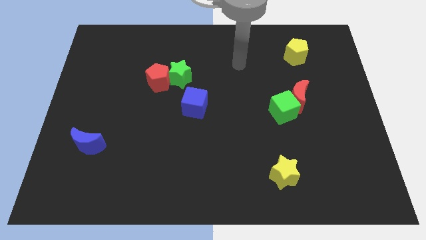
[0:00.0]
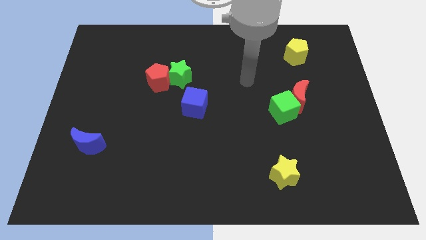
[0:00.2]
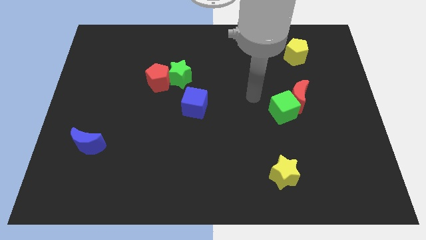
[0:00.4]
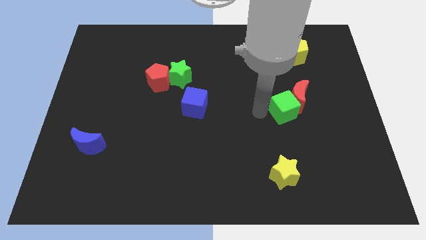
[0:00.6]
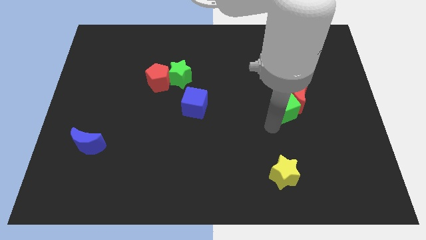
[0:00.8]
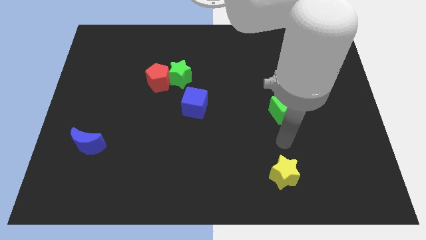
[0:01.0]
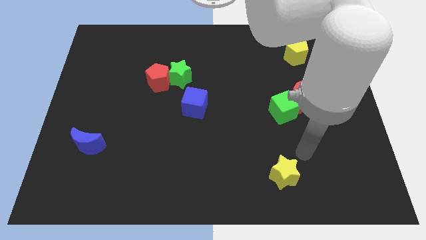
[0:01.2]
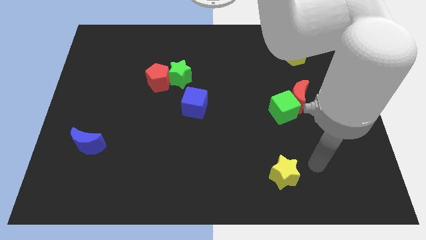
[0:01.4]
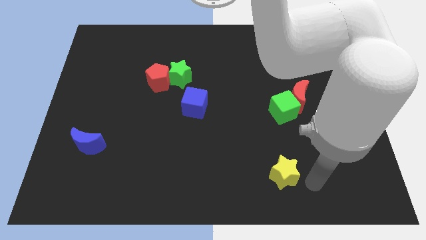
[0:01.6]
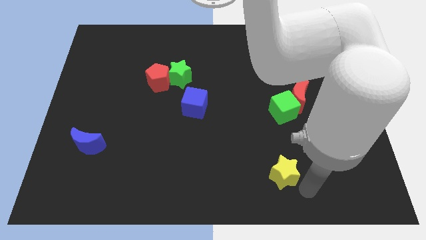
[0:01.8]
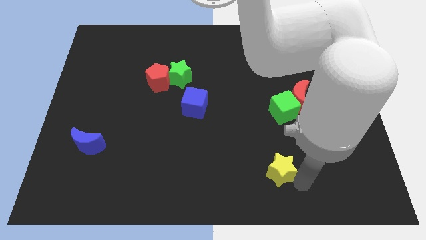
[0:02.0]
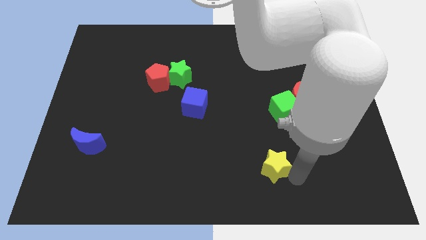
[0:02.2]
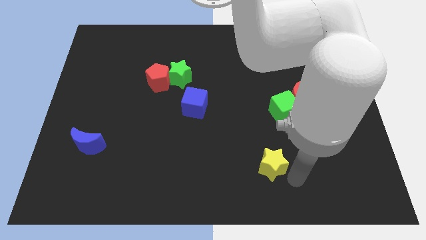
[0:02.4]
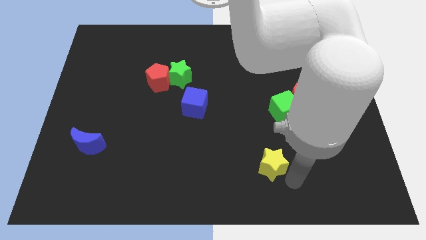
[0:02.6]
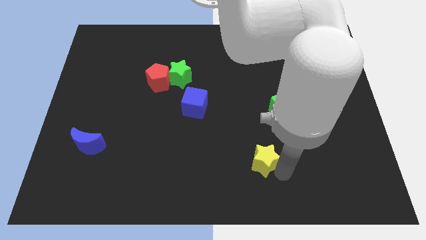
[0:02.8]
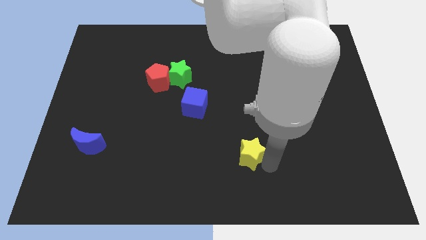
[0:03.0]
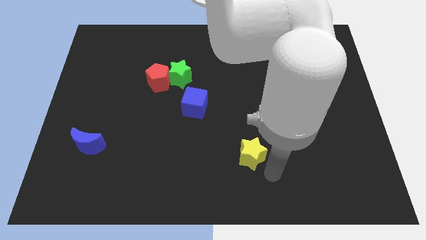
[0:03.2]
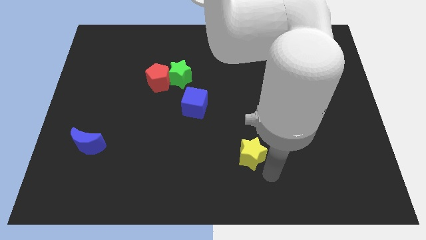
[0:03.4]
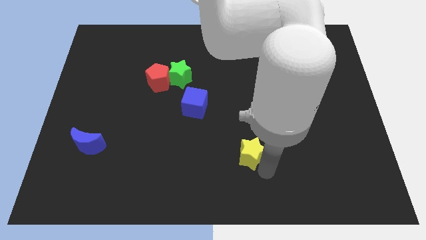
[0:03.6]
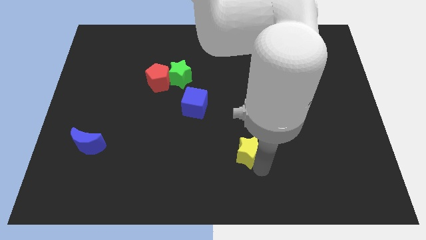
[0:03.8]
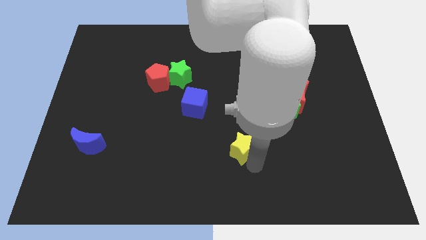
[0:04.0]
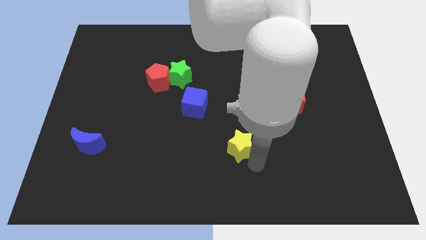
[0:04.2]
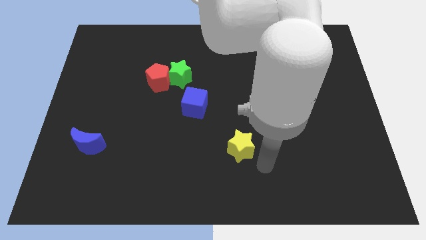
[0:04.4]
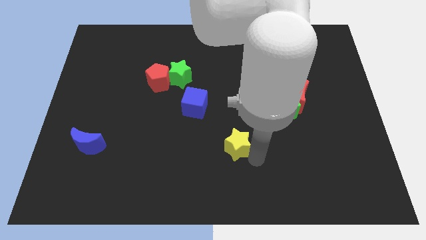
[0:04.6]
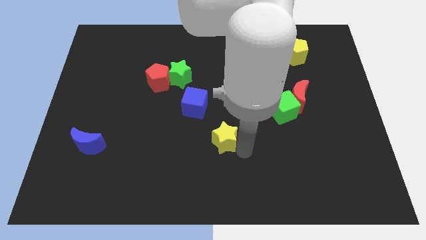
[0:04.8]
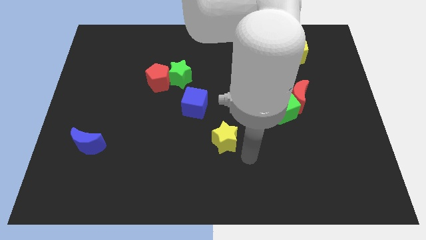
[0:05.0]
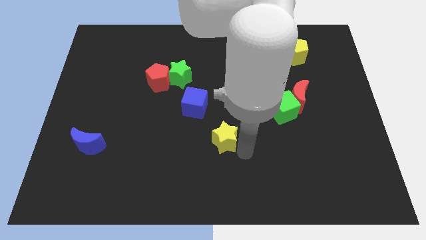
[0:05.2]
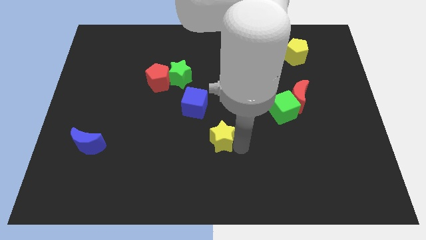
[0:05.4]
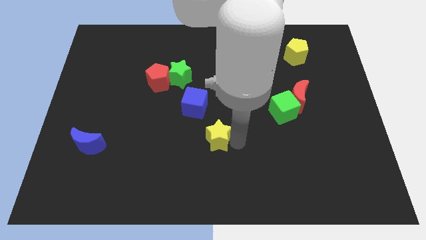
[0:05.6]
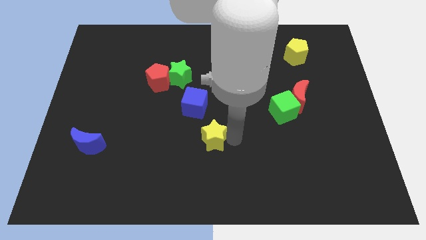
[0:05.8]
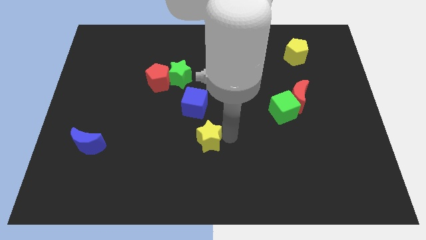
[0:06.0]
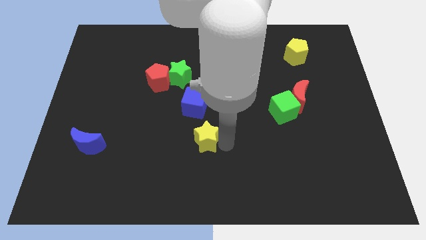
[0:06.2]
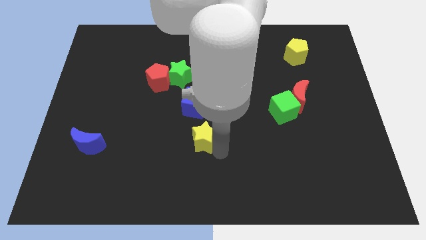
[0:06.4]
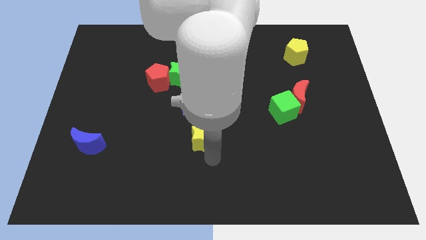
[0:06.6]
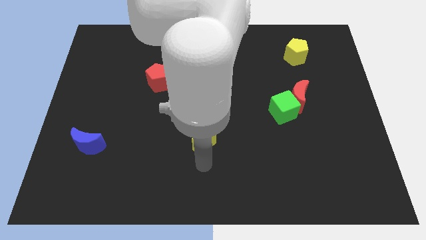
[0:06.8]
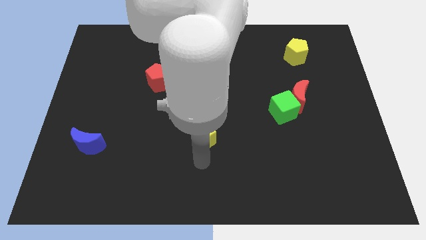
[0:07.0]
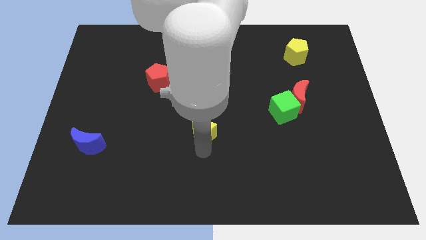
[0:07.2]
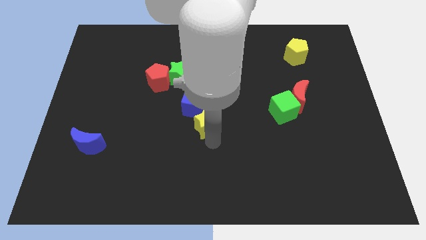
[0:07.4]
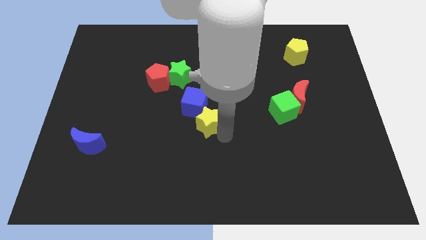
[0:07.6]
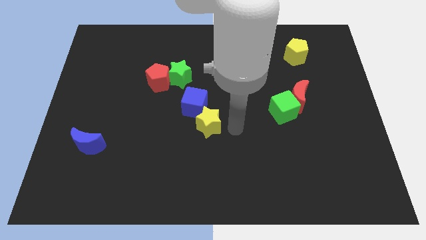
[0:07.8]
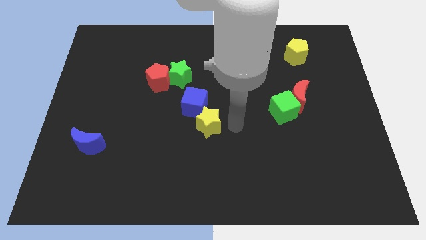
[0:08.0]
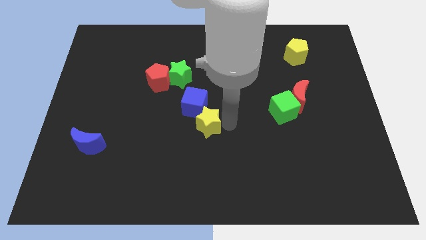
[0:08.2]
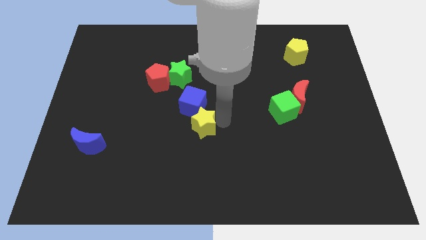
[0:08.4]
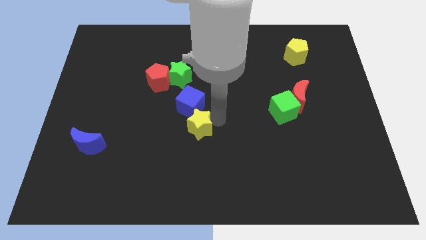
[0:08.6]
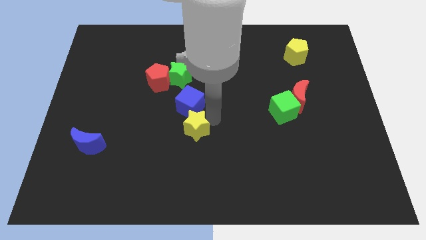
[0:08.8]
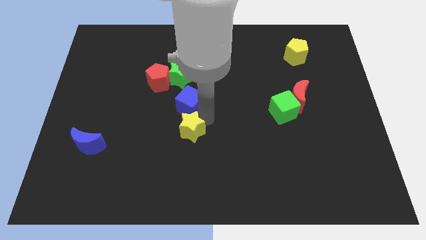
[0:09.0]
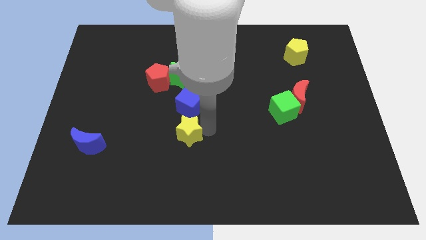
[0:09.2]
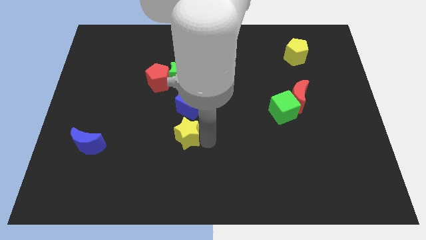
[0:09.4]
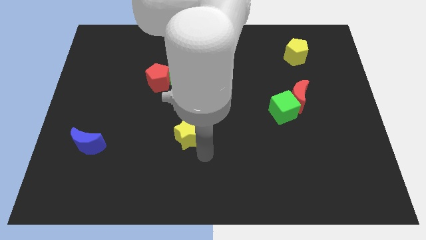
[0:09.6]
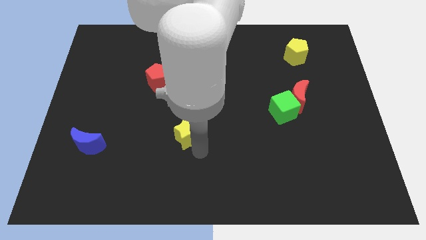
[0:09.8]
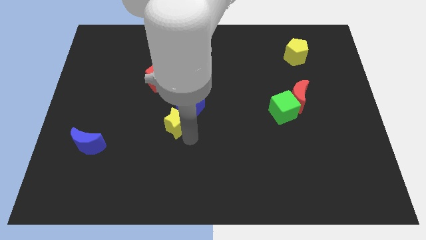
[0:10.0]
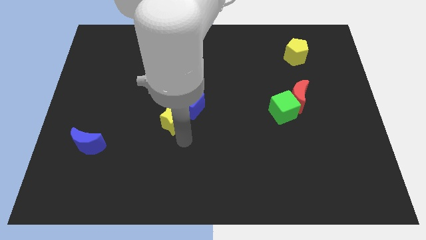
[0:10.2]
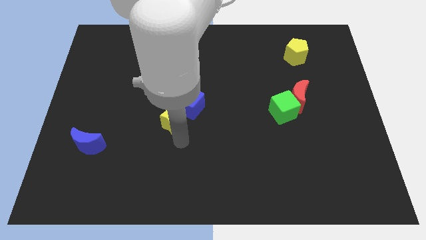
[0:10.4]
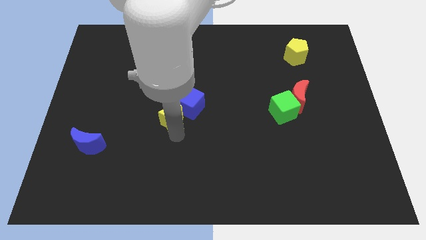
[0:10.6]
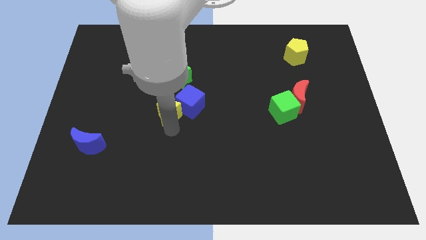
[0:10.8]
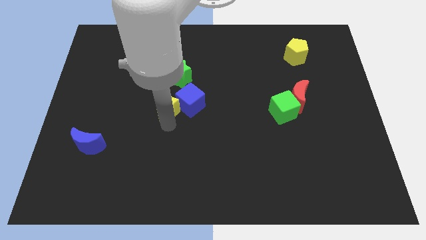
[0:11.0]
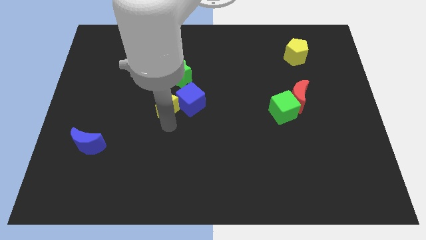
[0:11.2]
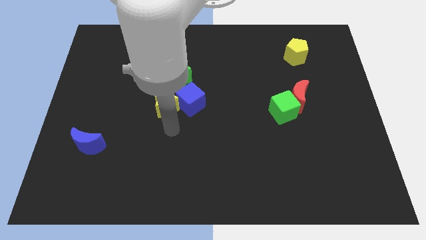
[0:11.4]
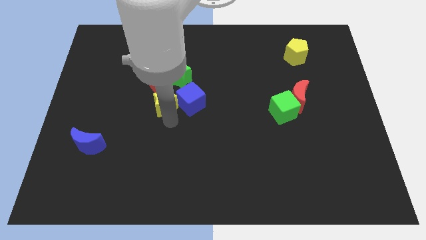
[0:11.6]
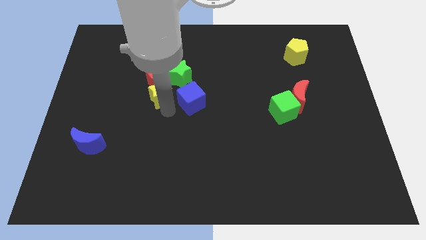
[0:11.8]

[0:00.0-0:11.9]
slide the yellow star next to the red pentagon
